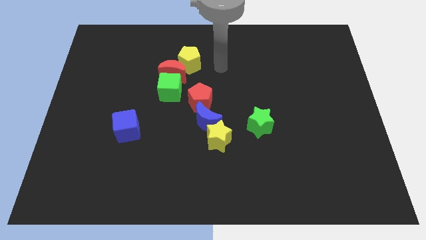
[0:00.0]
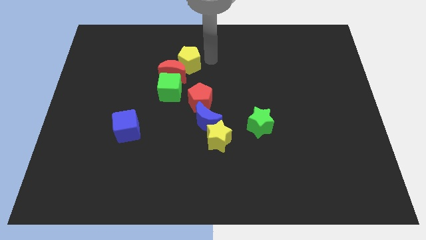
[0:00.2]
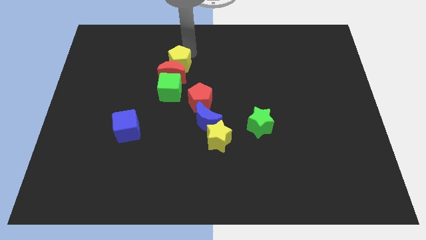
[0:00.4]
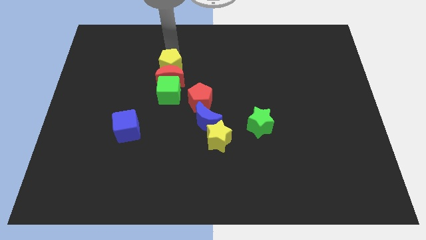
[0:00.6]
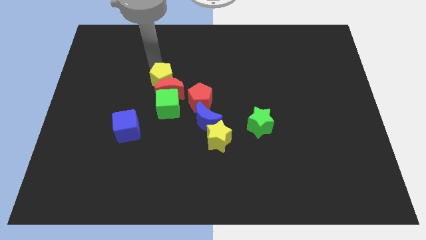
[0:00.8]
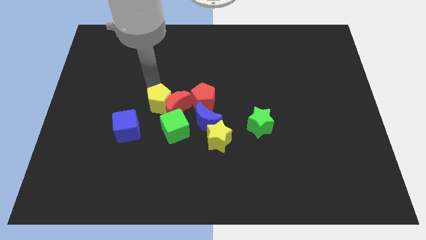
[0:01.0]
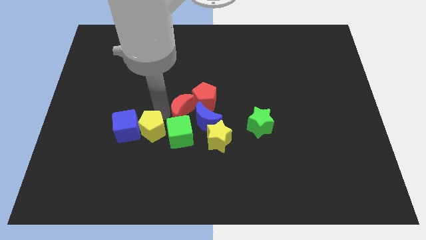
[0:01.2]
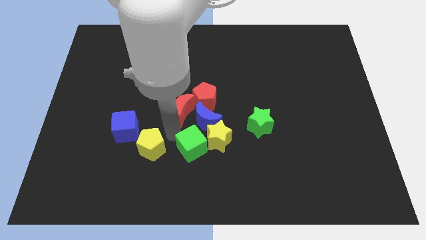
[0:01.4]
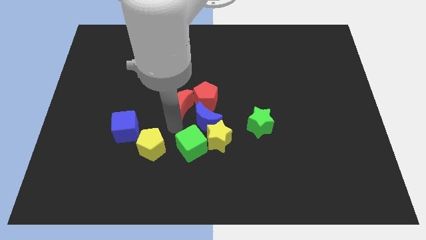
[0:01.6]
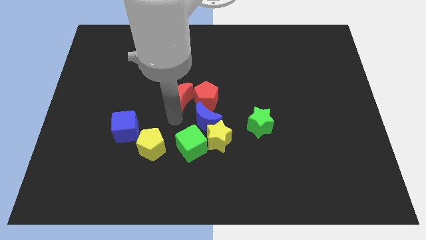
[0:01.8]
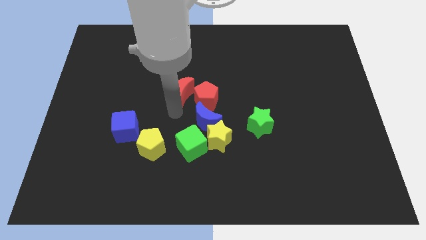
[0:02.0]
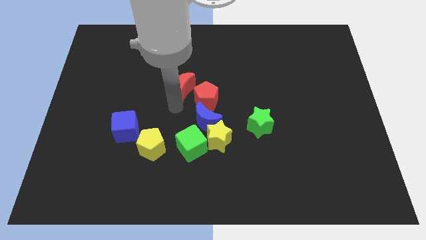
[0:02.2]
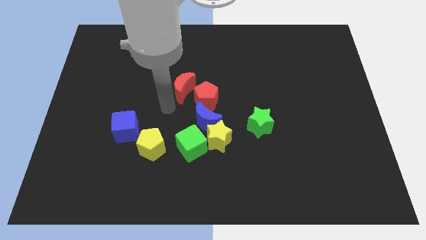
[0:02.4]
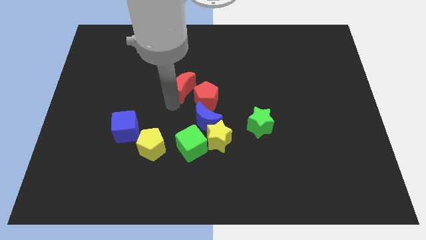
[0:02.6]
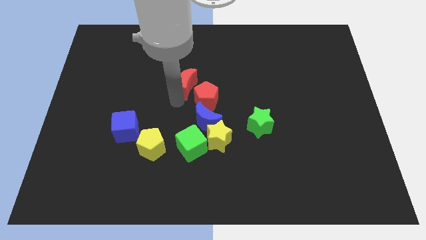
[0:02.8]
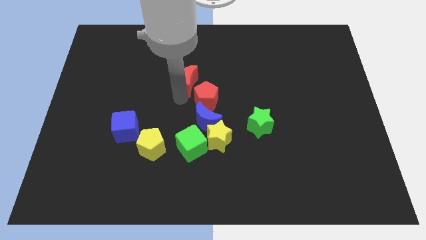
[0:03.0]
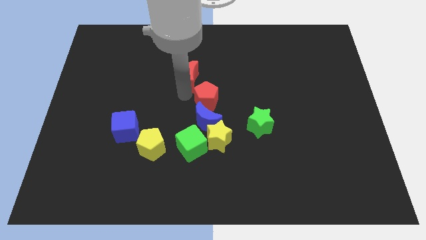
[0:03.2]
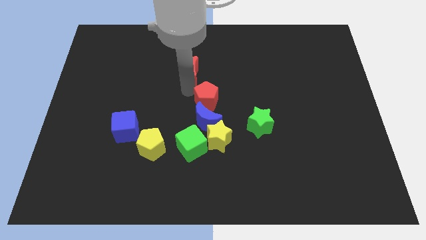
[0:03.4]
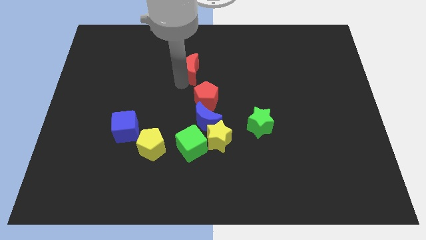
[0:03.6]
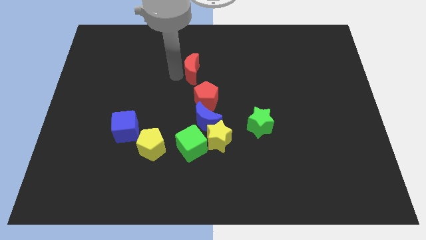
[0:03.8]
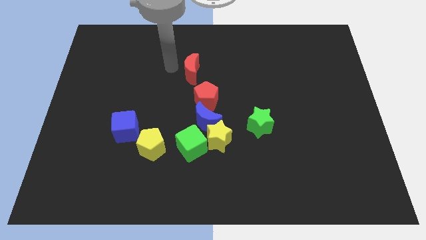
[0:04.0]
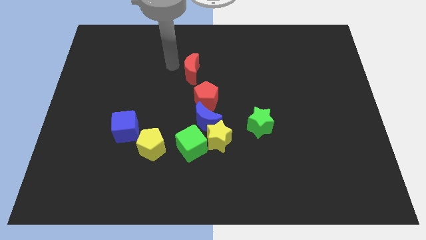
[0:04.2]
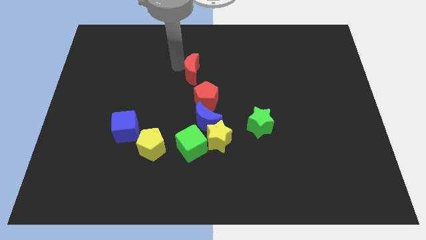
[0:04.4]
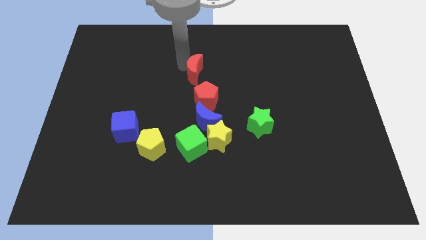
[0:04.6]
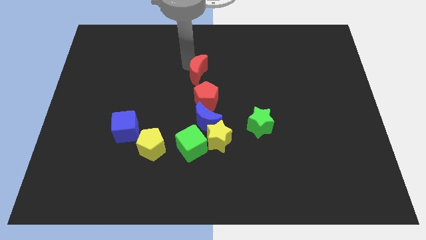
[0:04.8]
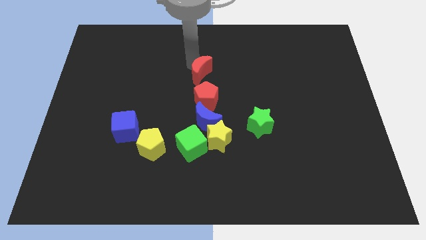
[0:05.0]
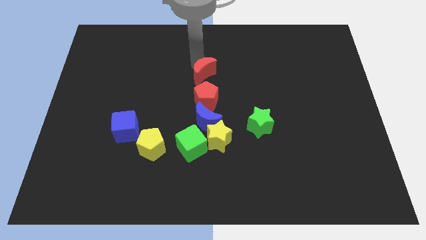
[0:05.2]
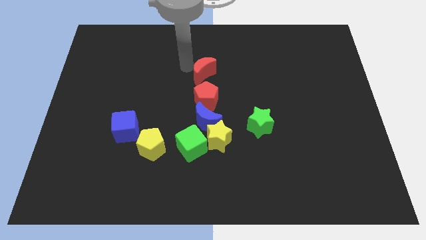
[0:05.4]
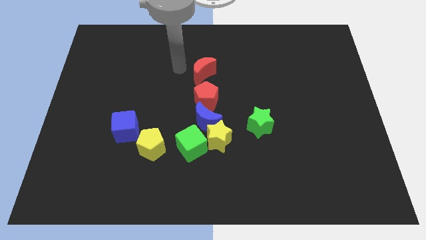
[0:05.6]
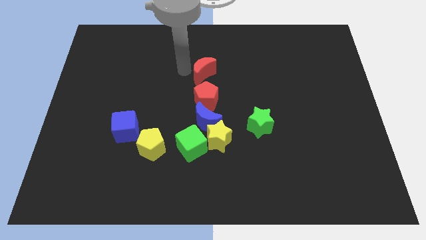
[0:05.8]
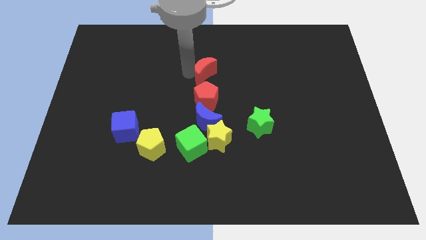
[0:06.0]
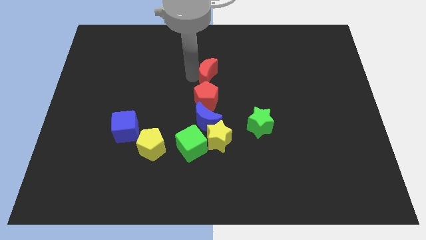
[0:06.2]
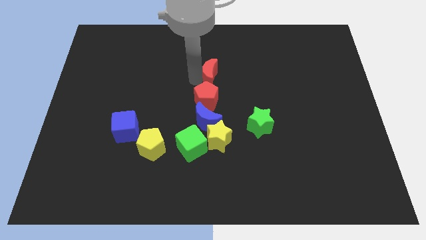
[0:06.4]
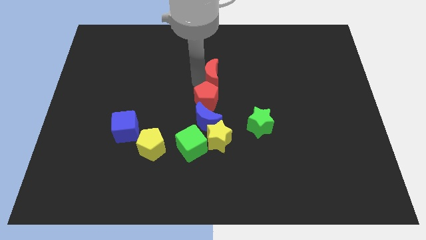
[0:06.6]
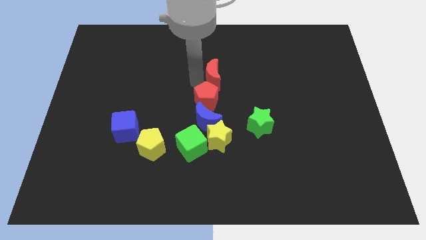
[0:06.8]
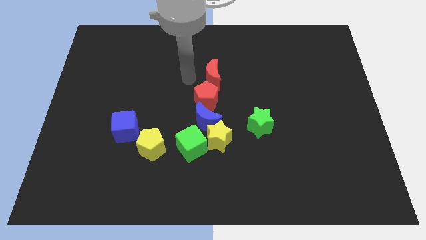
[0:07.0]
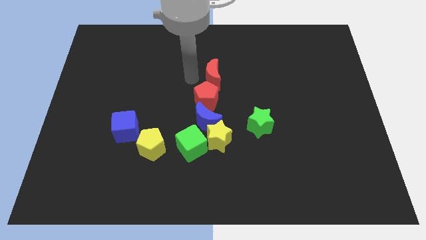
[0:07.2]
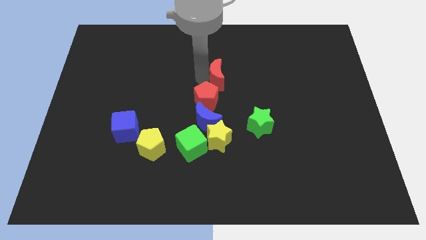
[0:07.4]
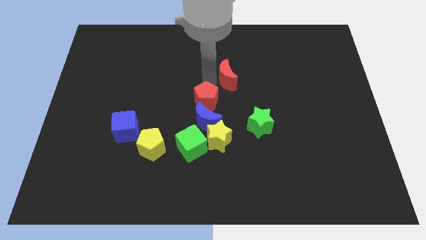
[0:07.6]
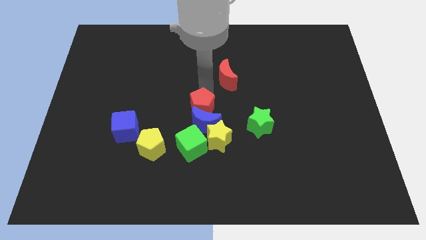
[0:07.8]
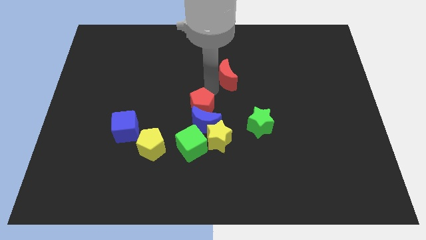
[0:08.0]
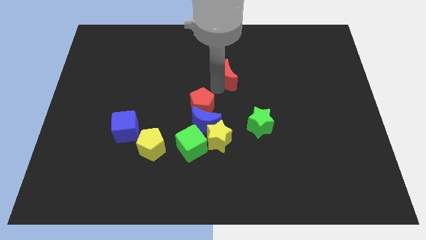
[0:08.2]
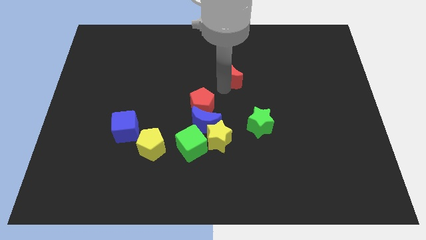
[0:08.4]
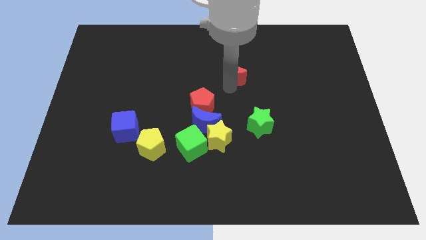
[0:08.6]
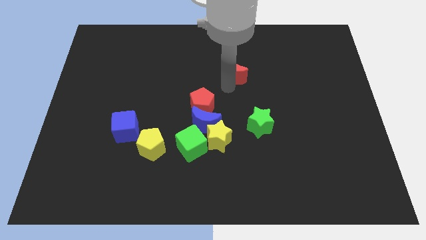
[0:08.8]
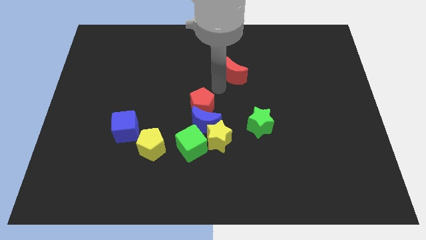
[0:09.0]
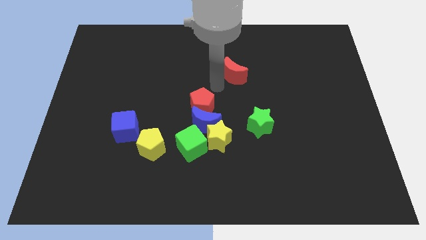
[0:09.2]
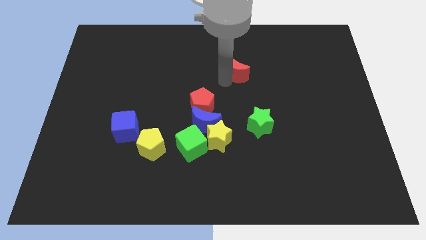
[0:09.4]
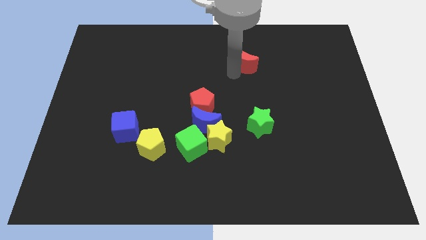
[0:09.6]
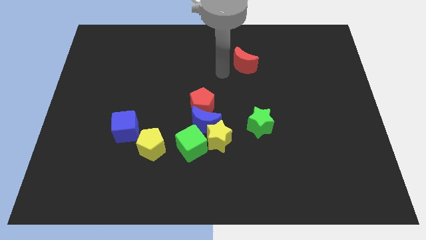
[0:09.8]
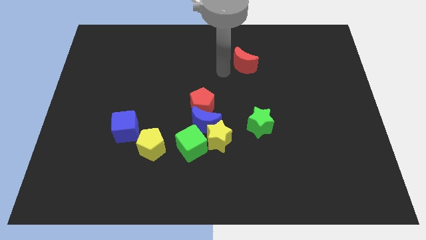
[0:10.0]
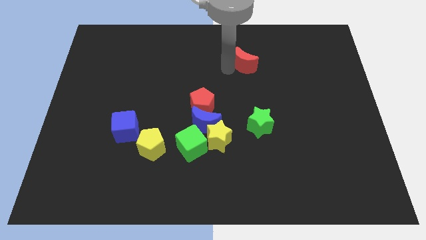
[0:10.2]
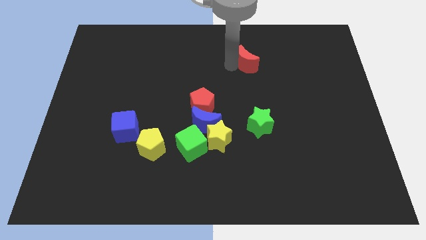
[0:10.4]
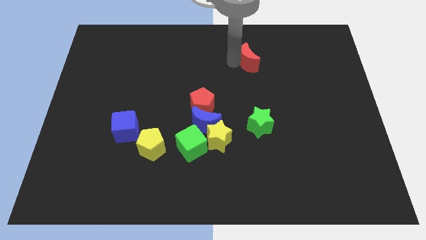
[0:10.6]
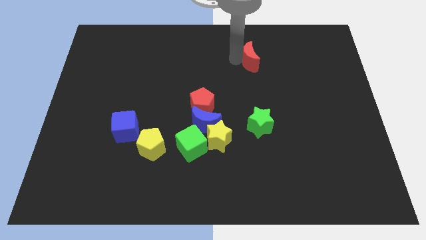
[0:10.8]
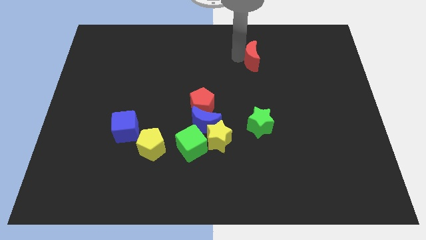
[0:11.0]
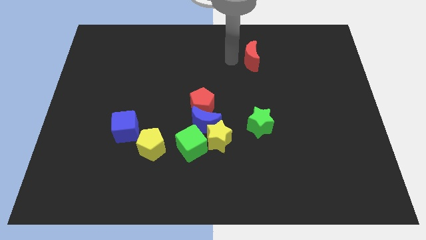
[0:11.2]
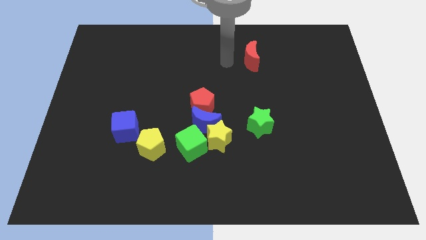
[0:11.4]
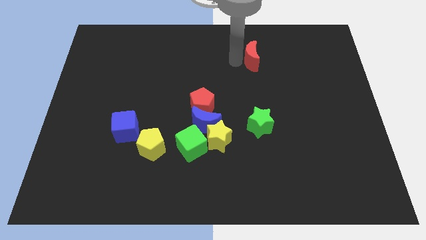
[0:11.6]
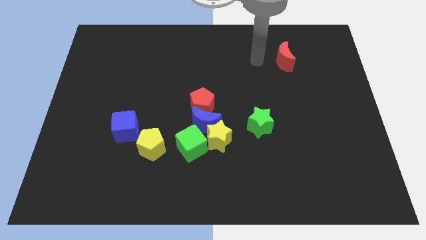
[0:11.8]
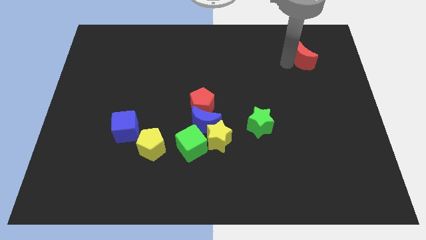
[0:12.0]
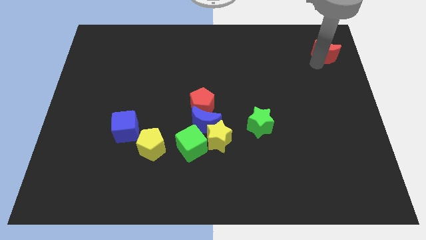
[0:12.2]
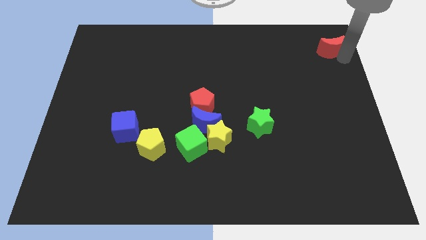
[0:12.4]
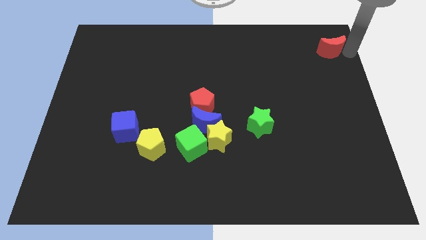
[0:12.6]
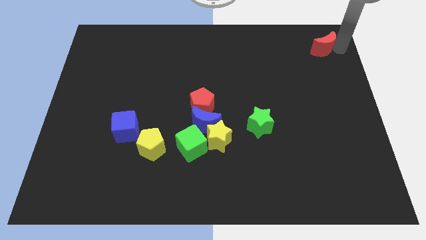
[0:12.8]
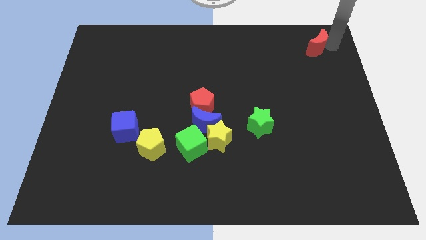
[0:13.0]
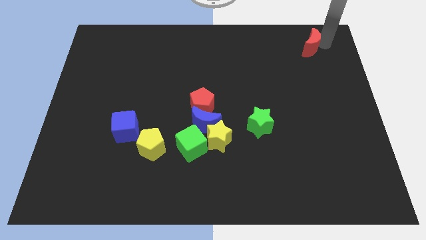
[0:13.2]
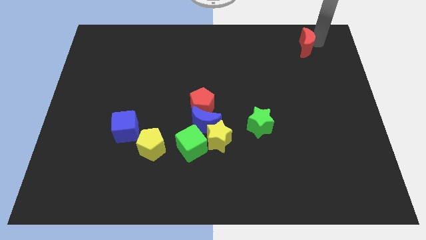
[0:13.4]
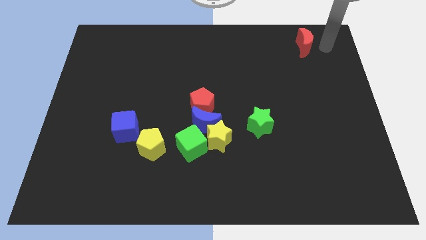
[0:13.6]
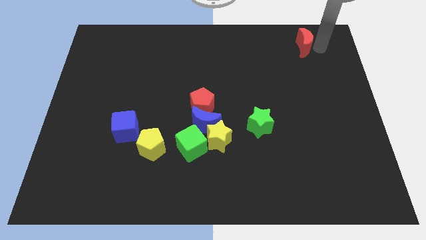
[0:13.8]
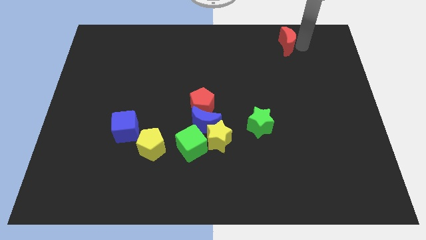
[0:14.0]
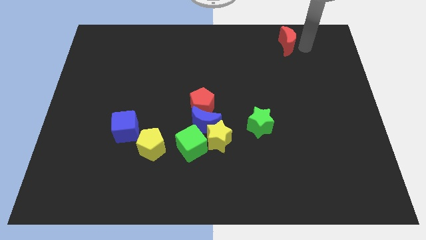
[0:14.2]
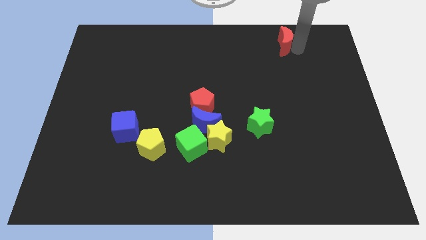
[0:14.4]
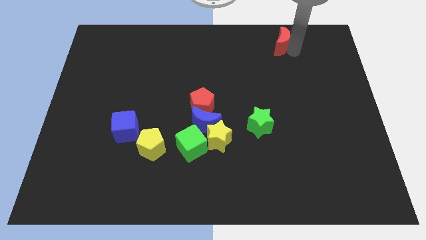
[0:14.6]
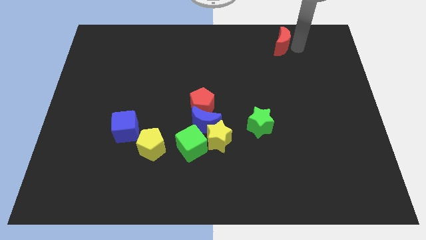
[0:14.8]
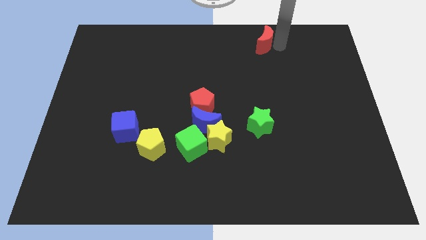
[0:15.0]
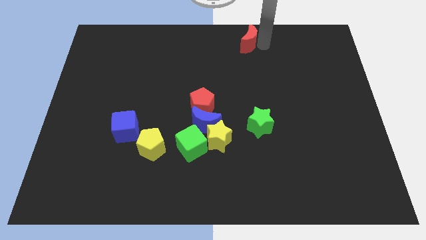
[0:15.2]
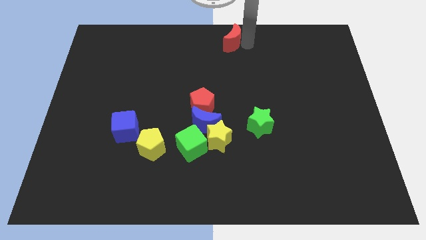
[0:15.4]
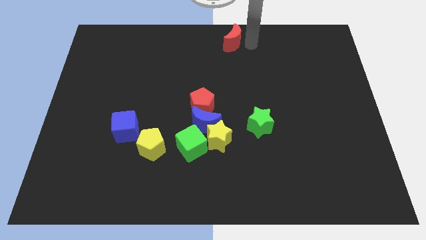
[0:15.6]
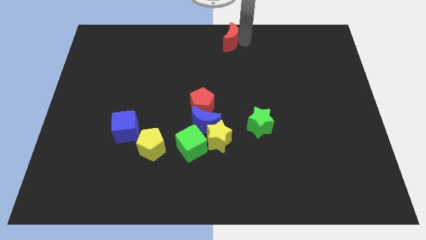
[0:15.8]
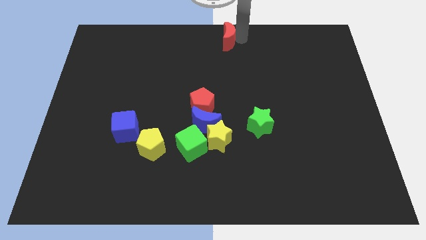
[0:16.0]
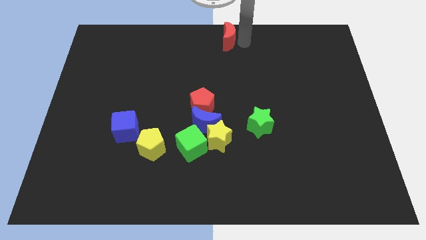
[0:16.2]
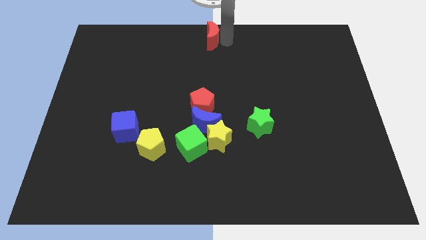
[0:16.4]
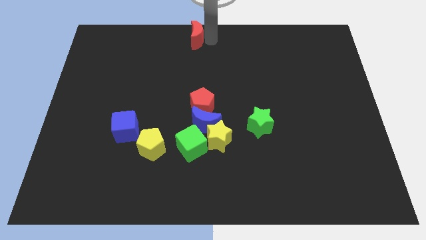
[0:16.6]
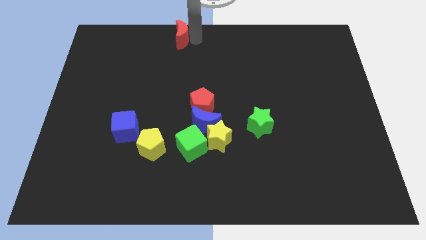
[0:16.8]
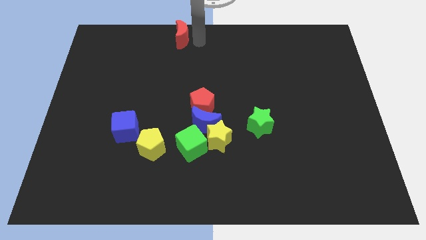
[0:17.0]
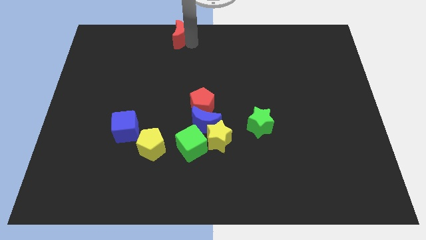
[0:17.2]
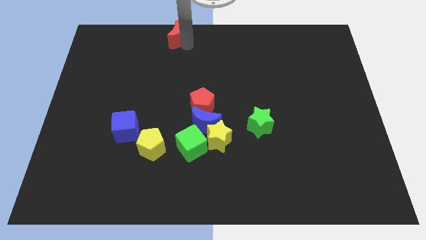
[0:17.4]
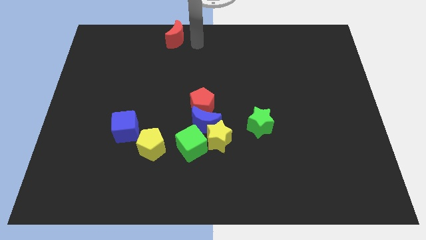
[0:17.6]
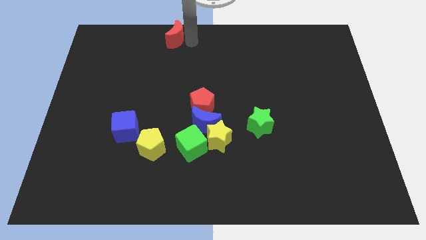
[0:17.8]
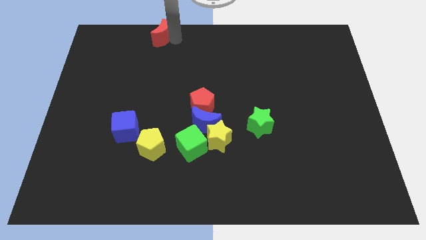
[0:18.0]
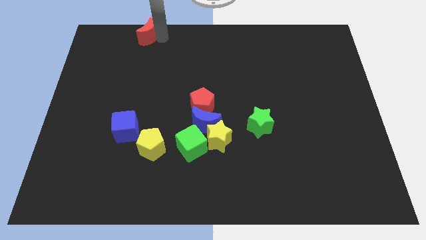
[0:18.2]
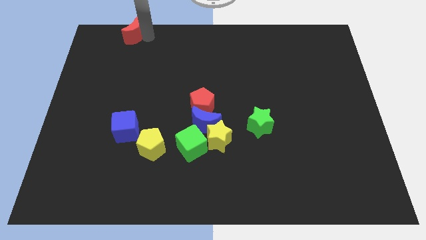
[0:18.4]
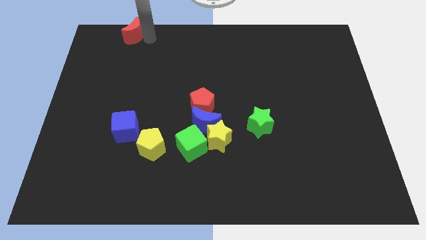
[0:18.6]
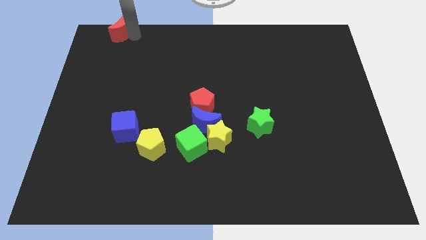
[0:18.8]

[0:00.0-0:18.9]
push the red moon to the top left of the board
